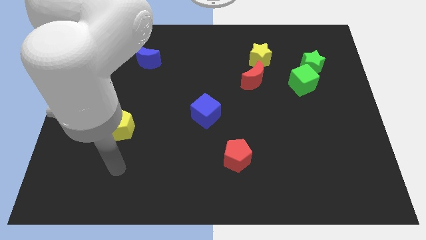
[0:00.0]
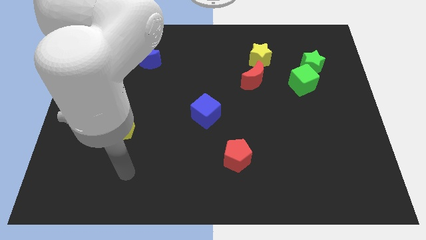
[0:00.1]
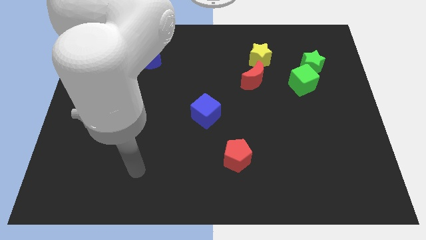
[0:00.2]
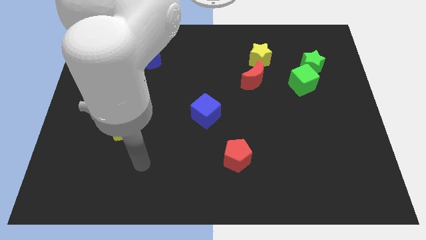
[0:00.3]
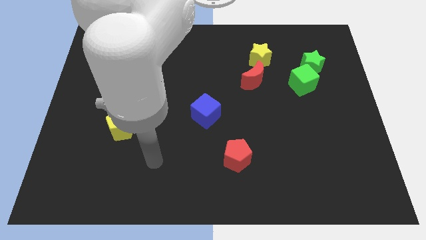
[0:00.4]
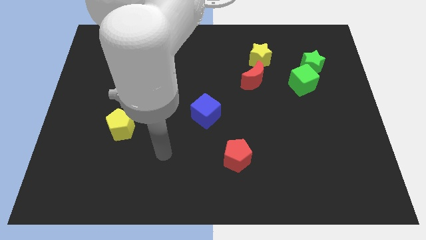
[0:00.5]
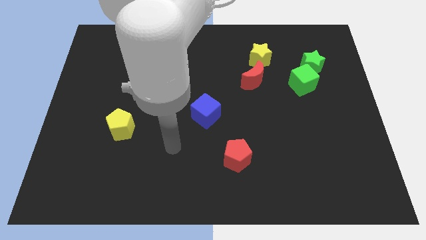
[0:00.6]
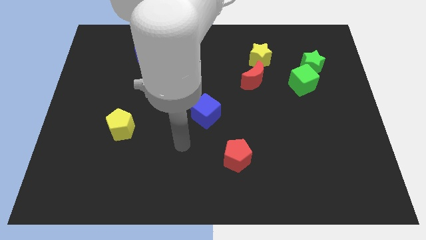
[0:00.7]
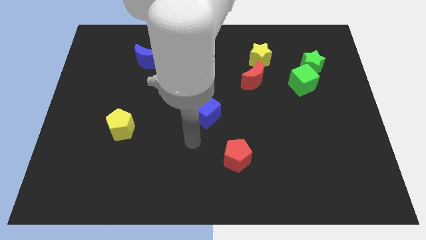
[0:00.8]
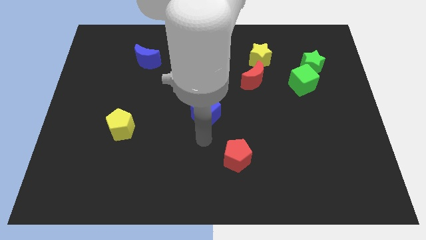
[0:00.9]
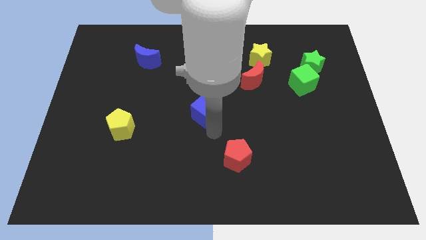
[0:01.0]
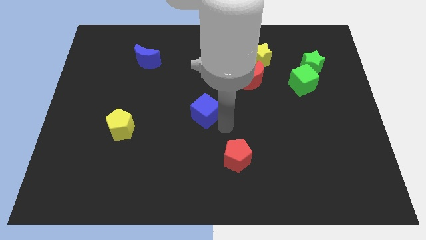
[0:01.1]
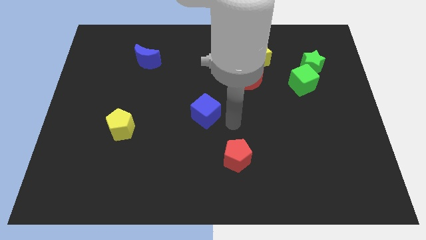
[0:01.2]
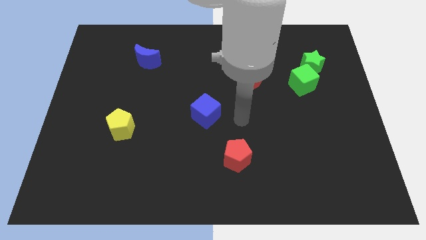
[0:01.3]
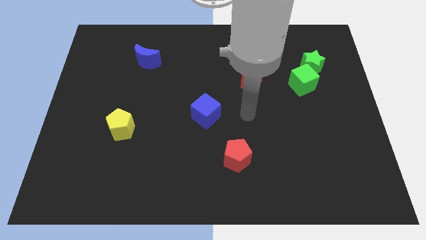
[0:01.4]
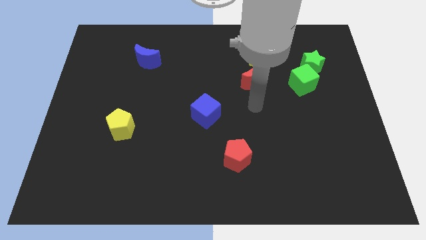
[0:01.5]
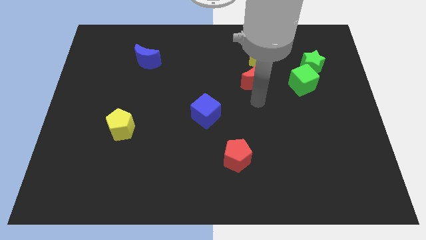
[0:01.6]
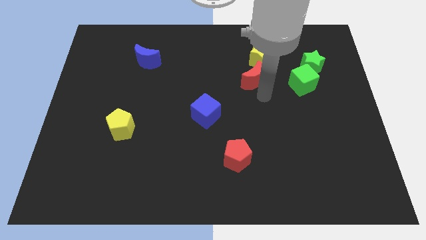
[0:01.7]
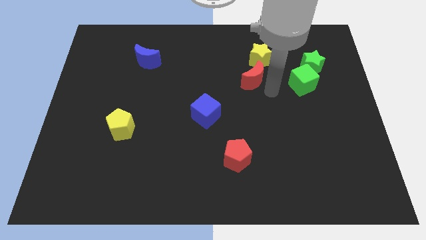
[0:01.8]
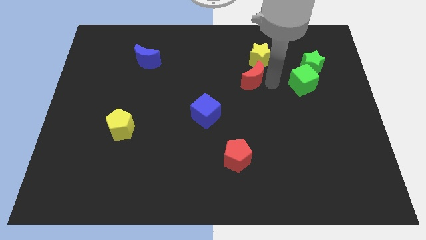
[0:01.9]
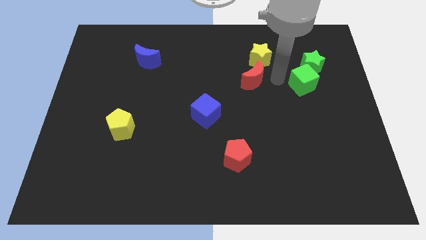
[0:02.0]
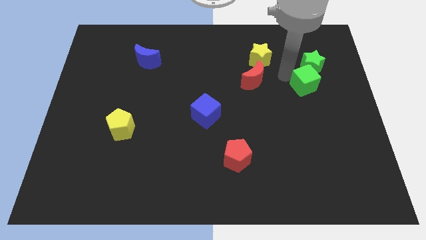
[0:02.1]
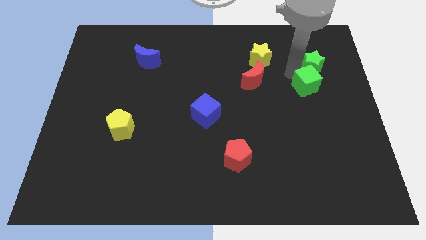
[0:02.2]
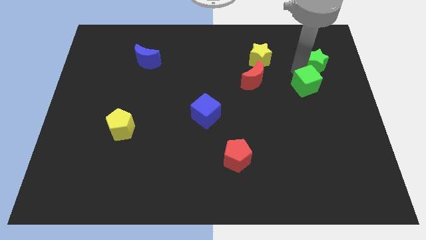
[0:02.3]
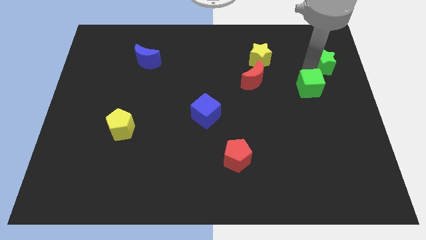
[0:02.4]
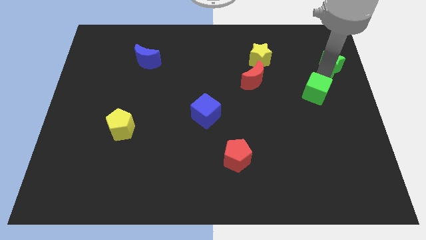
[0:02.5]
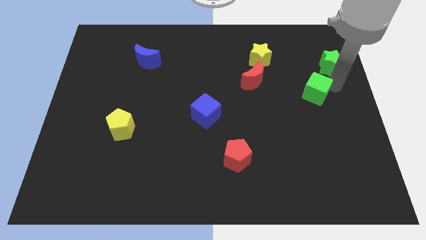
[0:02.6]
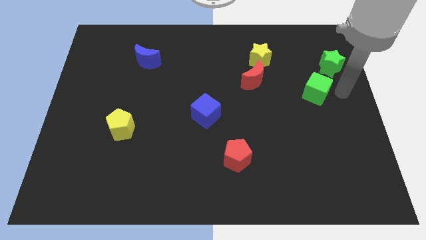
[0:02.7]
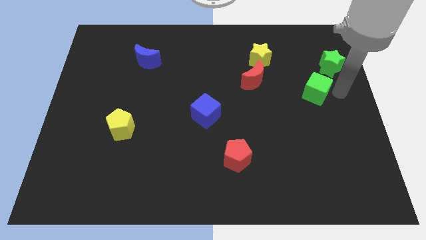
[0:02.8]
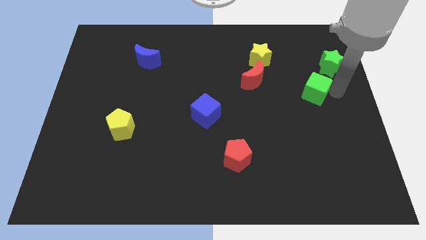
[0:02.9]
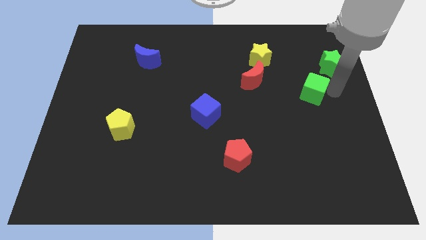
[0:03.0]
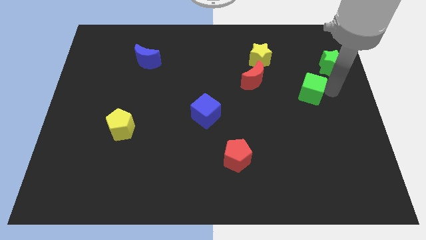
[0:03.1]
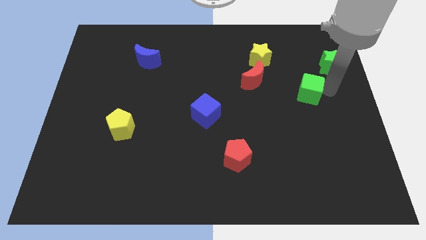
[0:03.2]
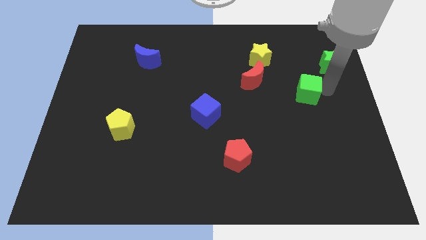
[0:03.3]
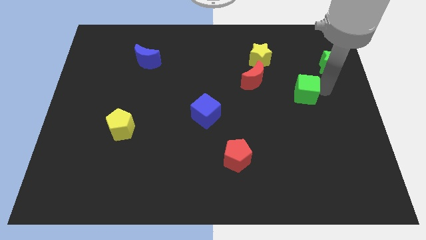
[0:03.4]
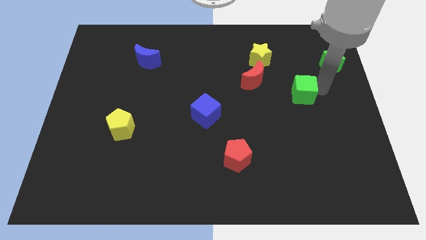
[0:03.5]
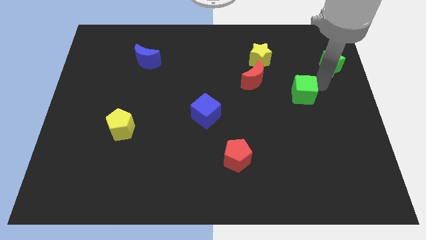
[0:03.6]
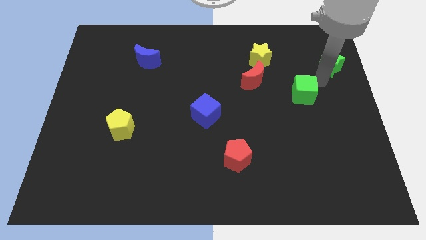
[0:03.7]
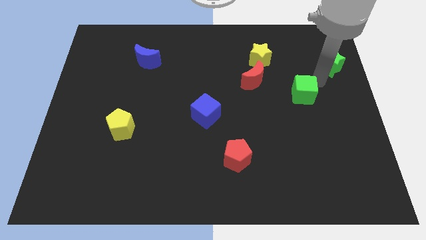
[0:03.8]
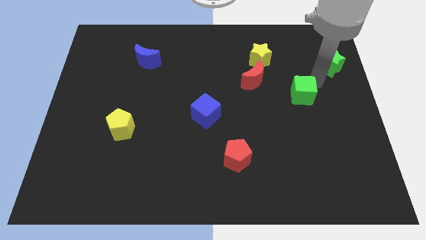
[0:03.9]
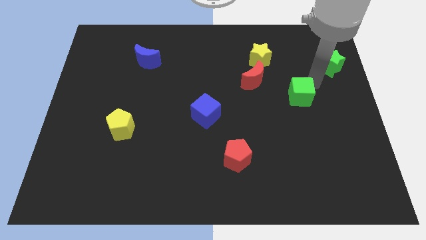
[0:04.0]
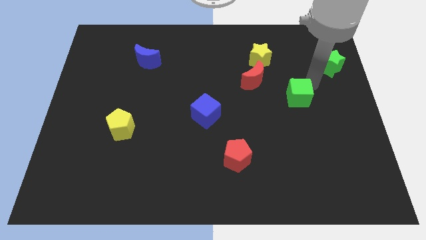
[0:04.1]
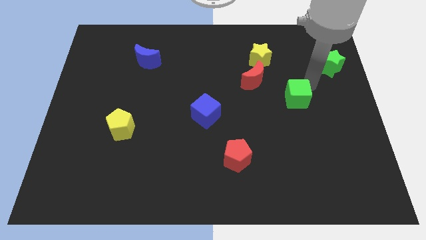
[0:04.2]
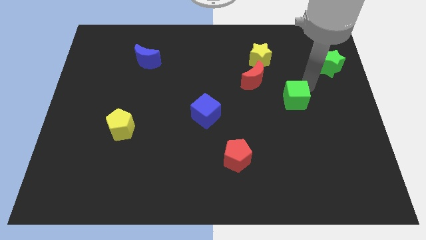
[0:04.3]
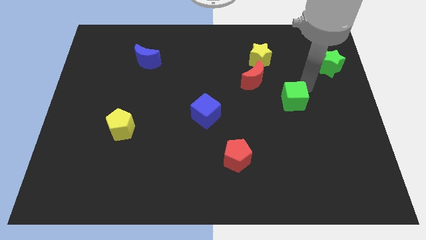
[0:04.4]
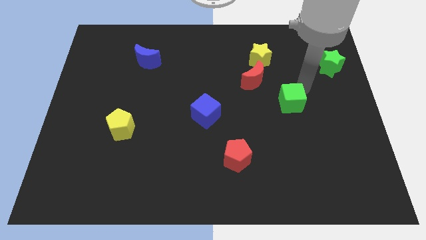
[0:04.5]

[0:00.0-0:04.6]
slightly move the green cube down and to the left

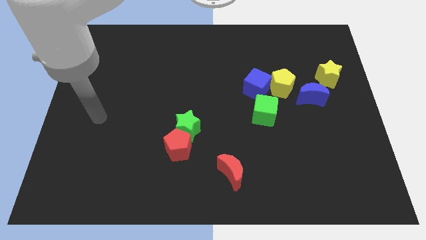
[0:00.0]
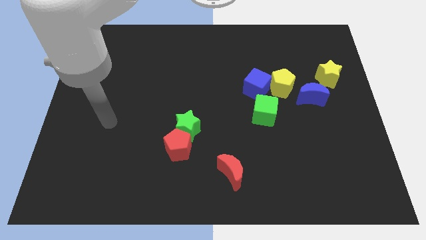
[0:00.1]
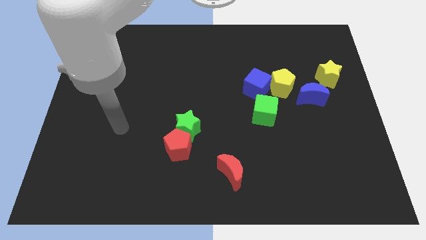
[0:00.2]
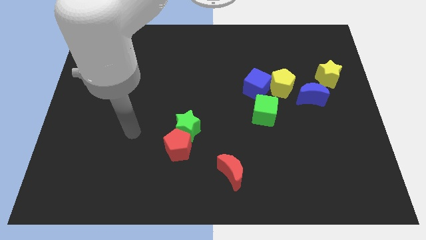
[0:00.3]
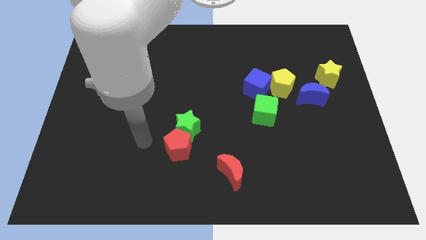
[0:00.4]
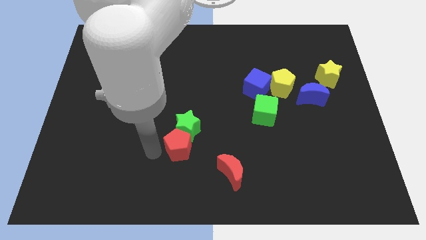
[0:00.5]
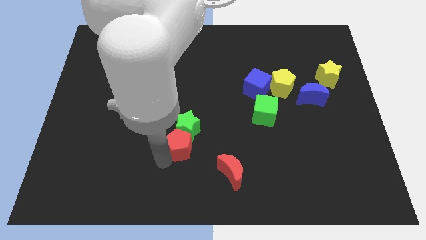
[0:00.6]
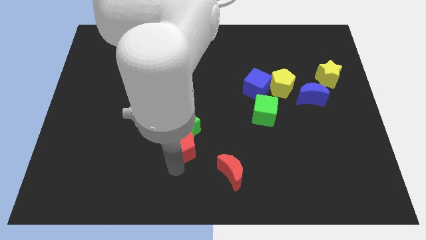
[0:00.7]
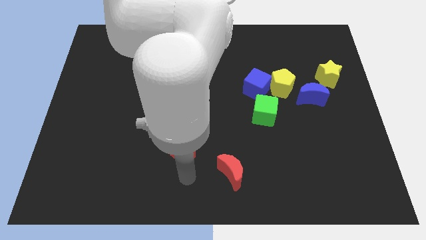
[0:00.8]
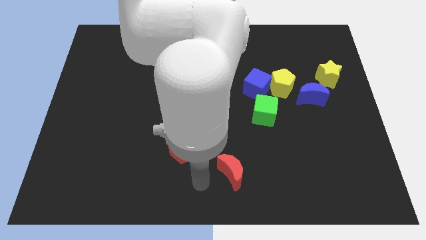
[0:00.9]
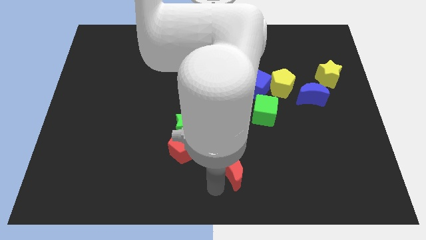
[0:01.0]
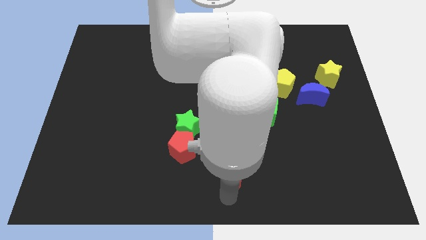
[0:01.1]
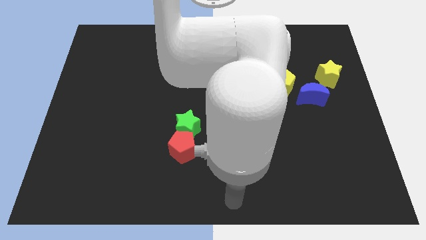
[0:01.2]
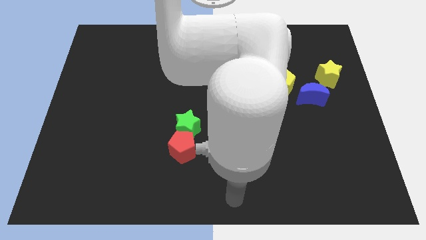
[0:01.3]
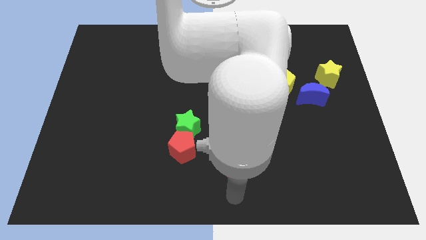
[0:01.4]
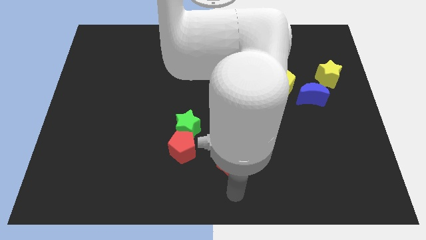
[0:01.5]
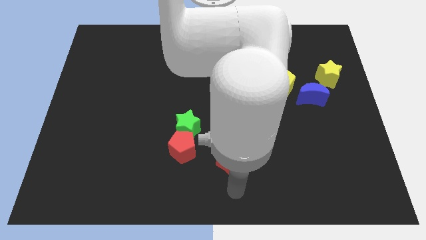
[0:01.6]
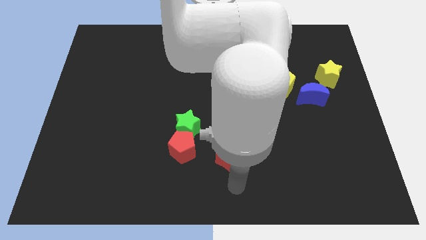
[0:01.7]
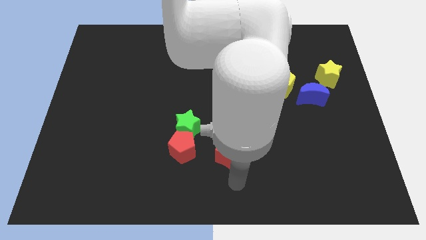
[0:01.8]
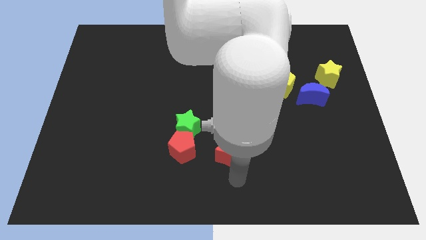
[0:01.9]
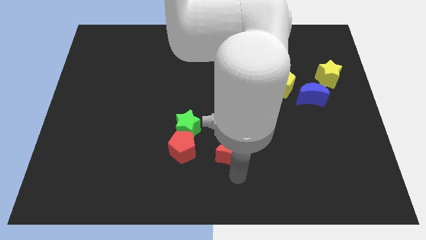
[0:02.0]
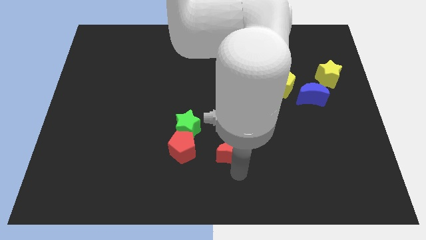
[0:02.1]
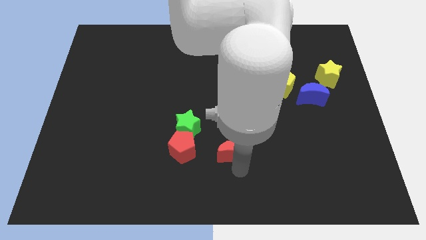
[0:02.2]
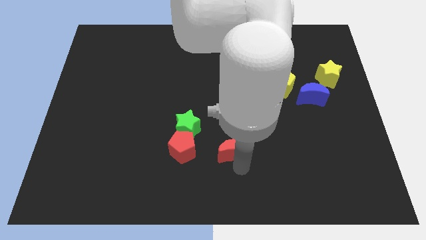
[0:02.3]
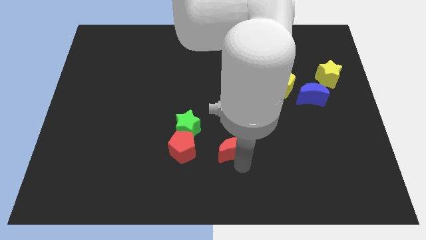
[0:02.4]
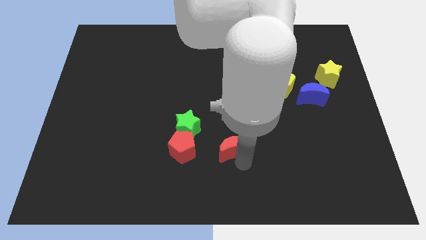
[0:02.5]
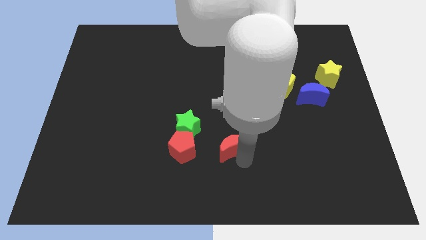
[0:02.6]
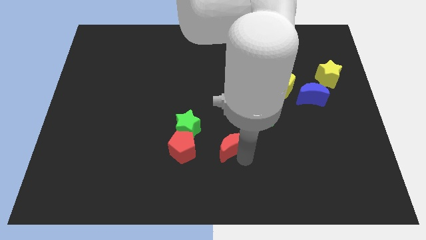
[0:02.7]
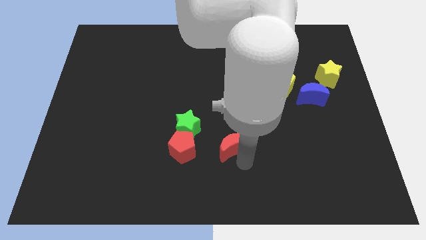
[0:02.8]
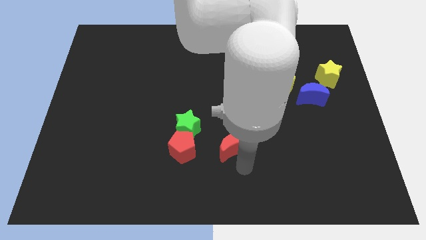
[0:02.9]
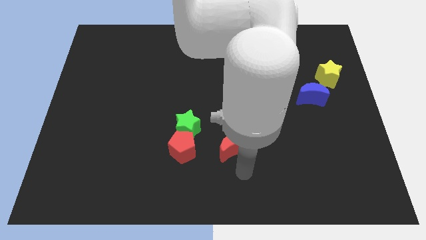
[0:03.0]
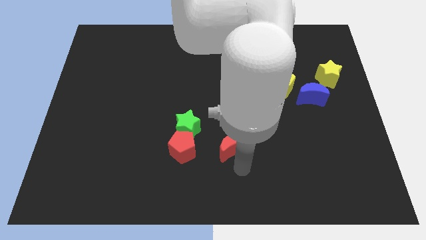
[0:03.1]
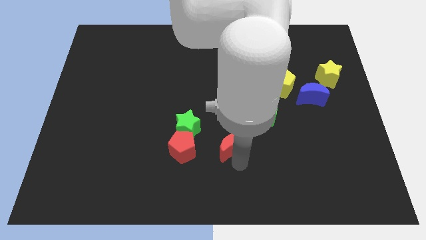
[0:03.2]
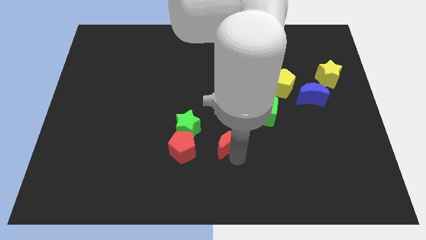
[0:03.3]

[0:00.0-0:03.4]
slightly move the red moon upwards
